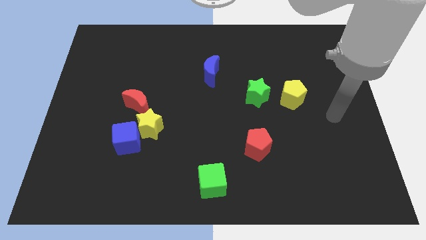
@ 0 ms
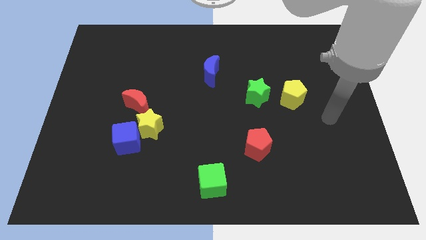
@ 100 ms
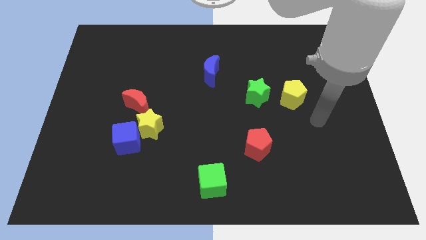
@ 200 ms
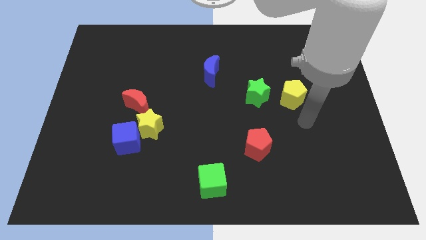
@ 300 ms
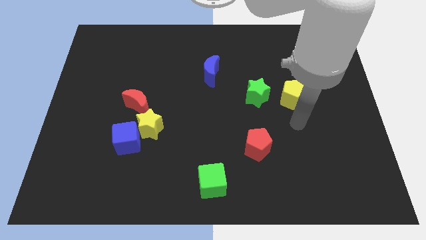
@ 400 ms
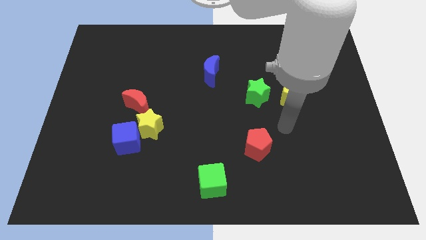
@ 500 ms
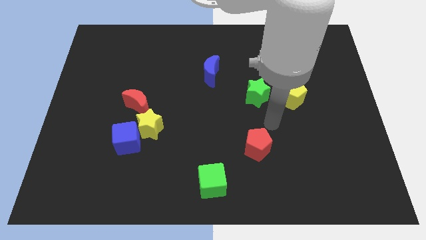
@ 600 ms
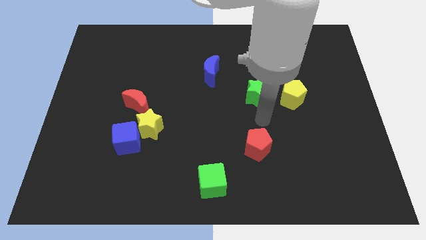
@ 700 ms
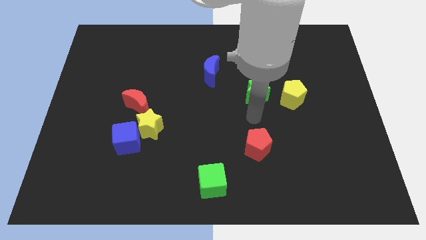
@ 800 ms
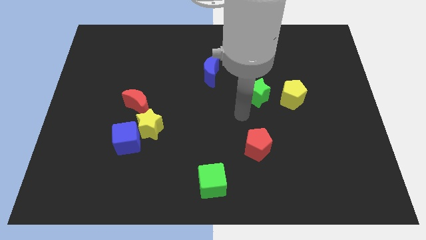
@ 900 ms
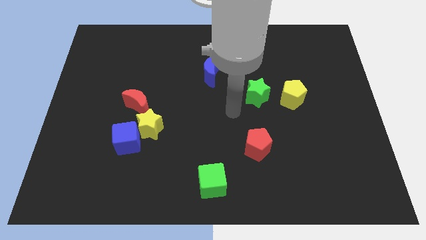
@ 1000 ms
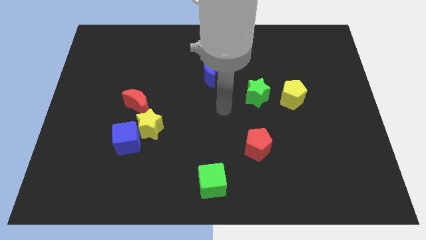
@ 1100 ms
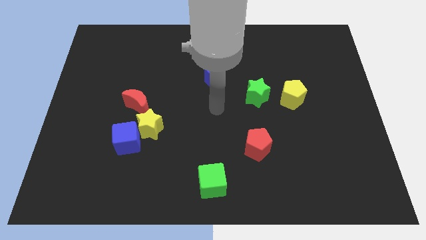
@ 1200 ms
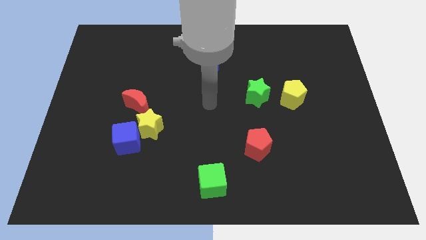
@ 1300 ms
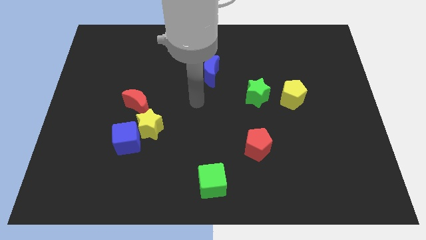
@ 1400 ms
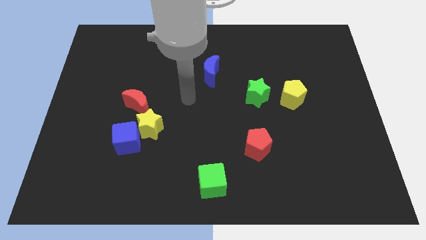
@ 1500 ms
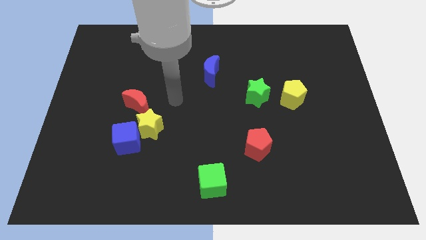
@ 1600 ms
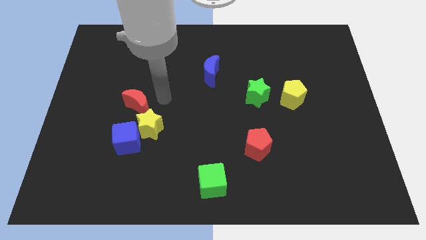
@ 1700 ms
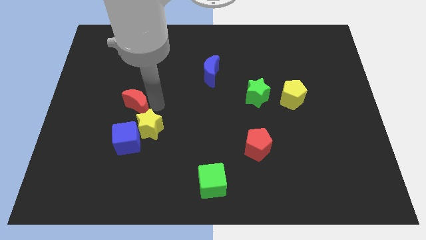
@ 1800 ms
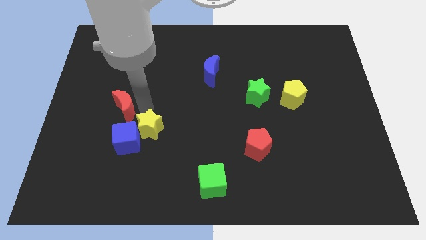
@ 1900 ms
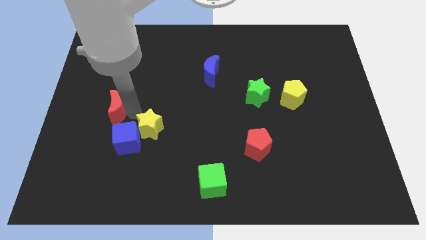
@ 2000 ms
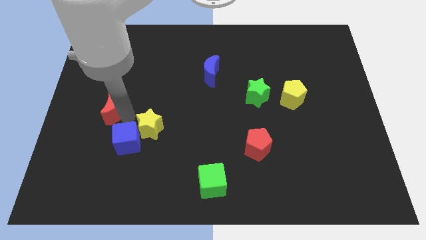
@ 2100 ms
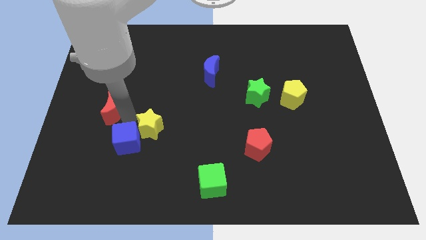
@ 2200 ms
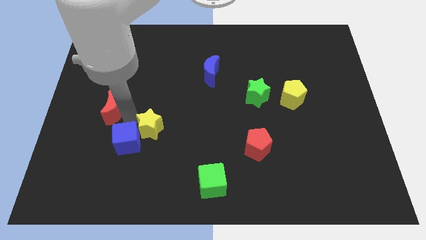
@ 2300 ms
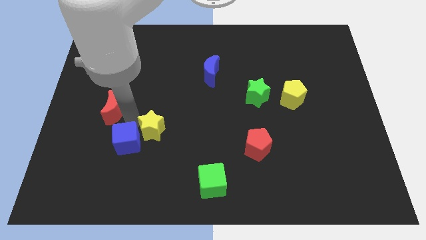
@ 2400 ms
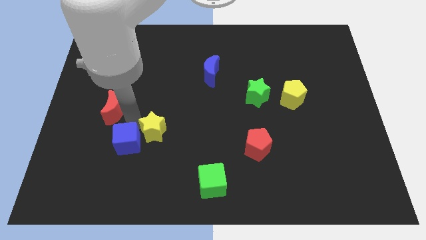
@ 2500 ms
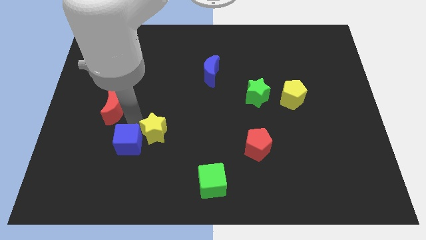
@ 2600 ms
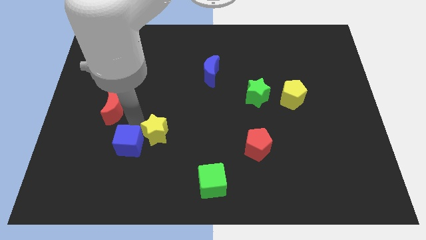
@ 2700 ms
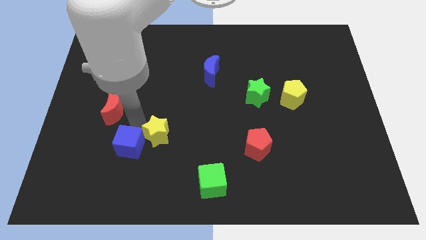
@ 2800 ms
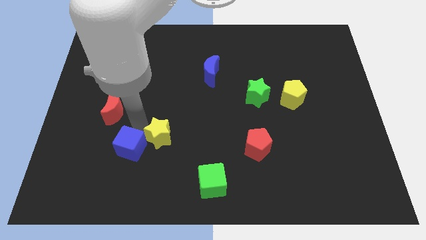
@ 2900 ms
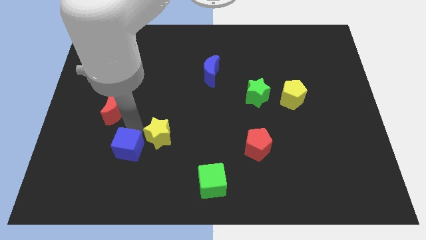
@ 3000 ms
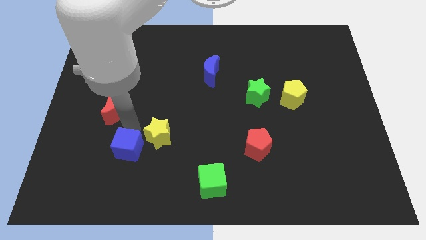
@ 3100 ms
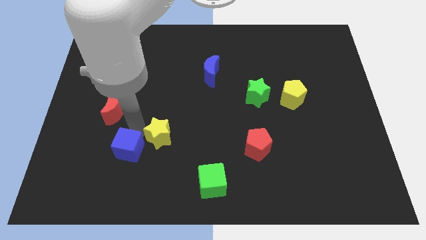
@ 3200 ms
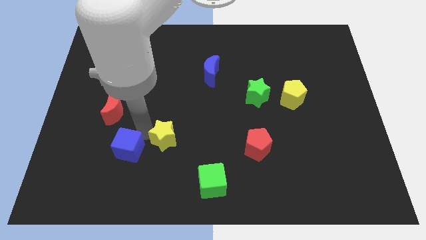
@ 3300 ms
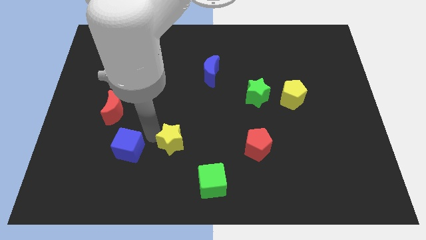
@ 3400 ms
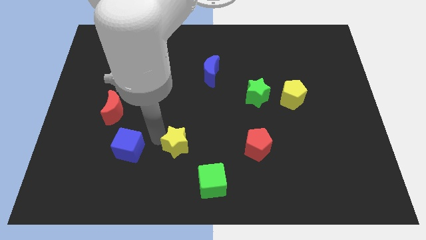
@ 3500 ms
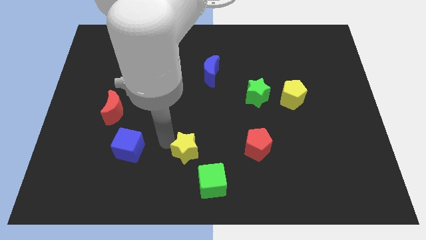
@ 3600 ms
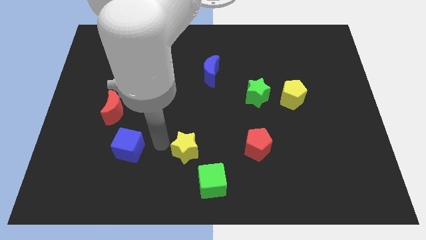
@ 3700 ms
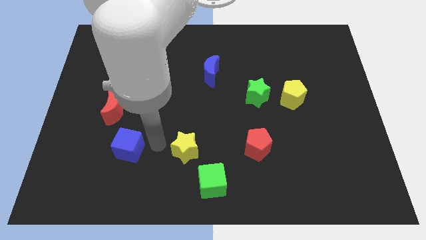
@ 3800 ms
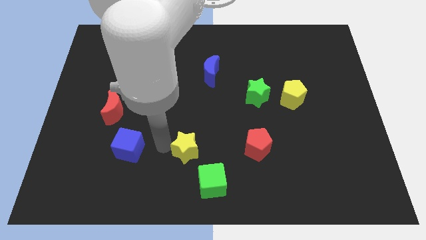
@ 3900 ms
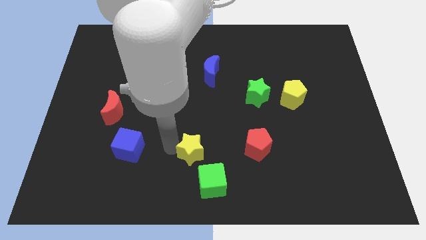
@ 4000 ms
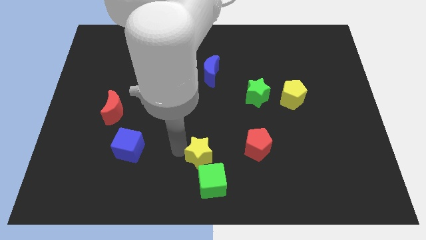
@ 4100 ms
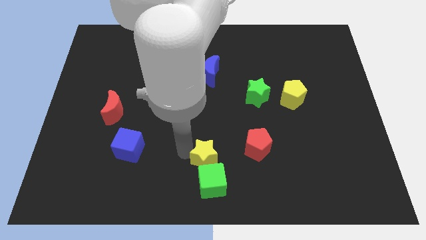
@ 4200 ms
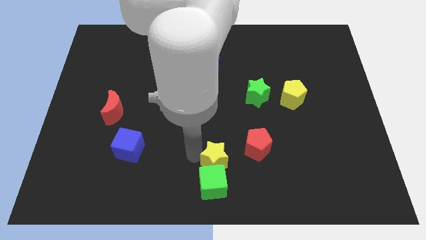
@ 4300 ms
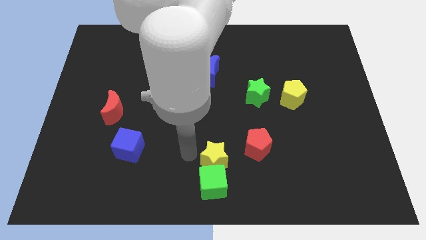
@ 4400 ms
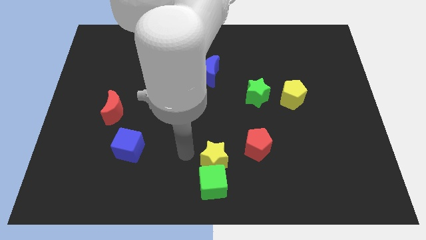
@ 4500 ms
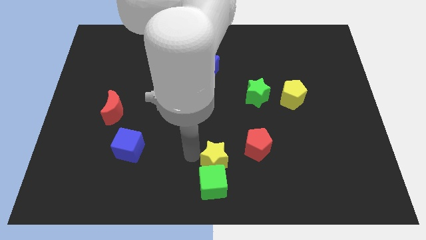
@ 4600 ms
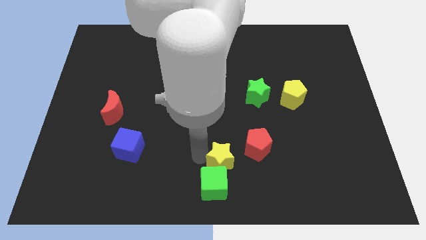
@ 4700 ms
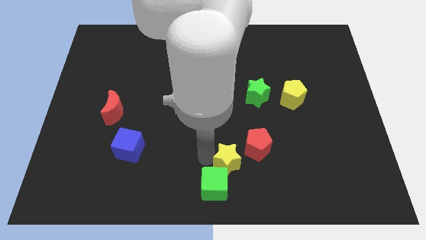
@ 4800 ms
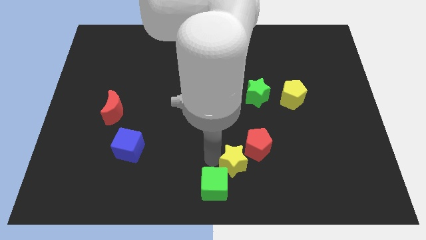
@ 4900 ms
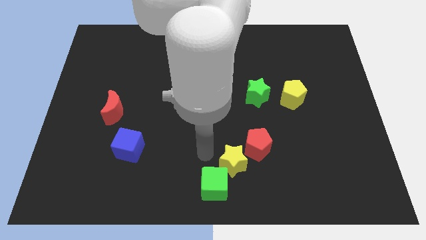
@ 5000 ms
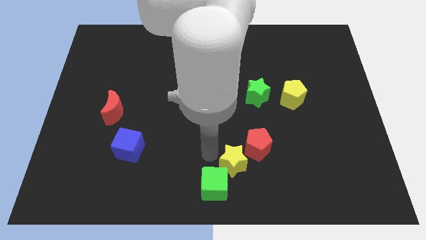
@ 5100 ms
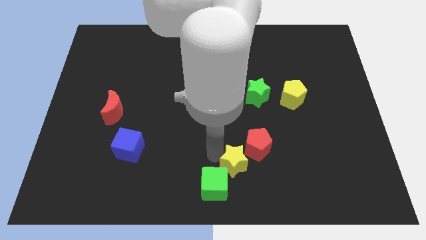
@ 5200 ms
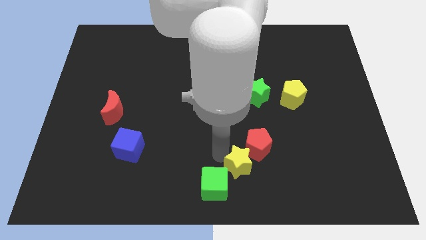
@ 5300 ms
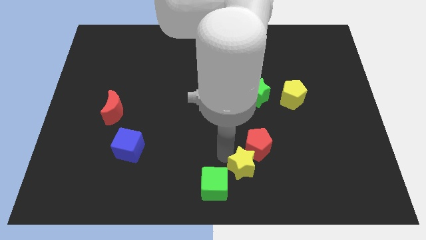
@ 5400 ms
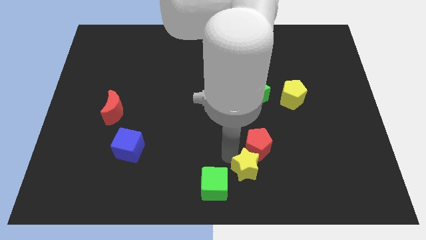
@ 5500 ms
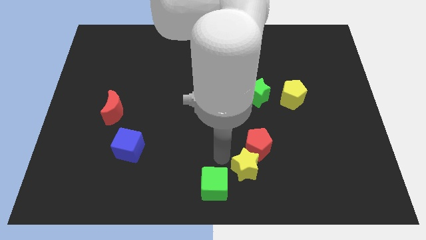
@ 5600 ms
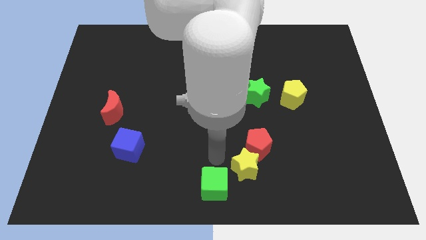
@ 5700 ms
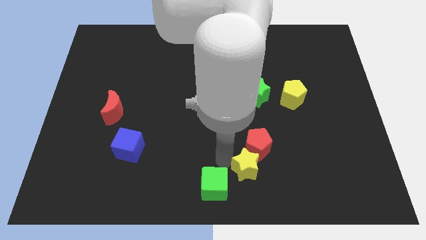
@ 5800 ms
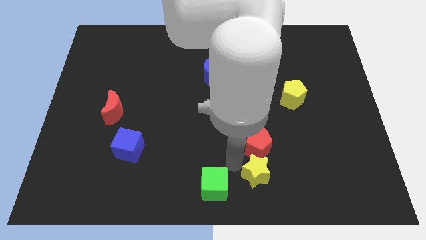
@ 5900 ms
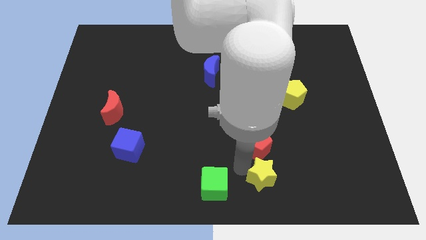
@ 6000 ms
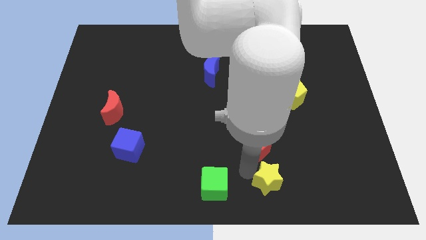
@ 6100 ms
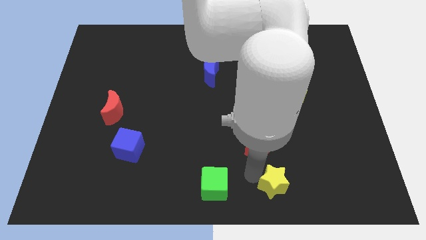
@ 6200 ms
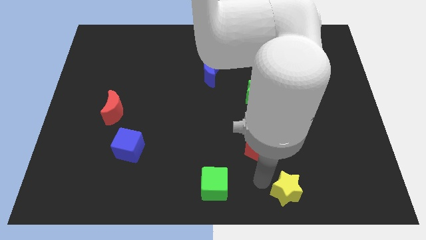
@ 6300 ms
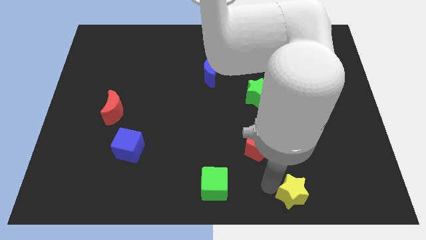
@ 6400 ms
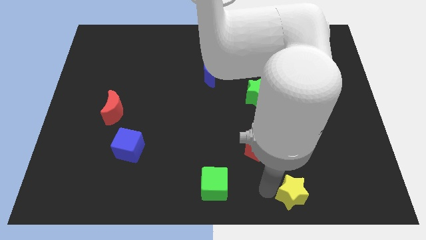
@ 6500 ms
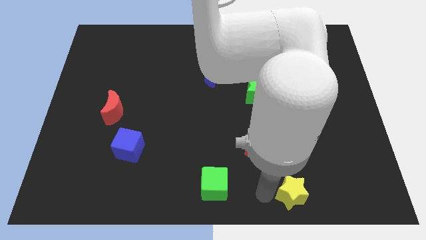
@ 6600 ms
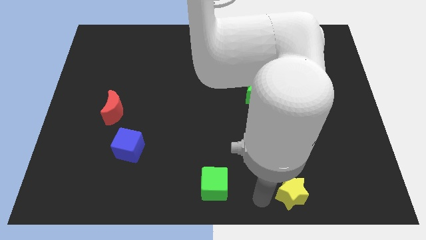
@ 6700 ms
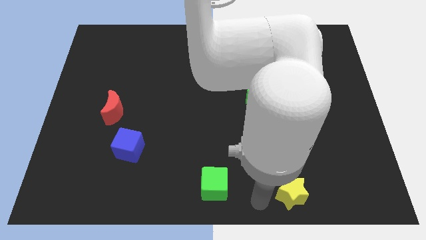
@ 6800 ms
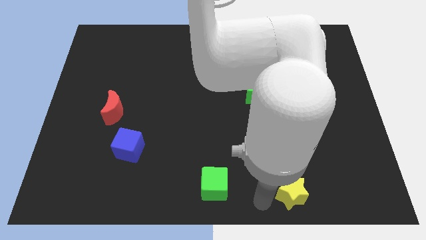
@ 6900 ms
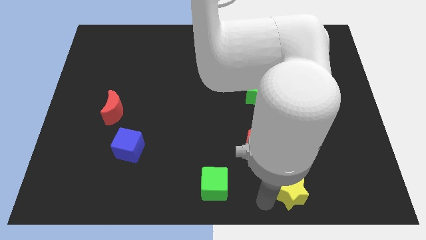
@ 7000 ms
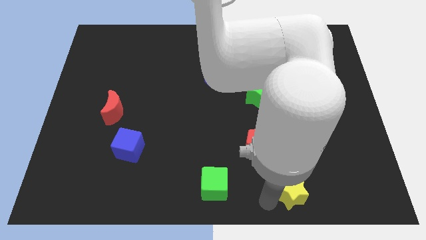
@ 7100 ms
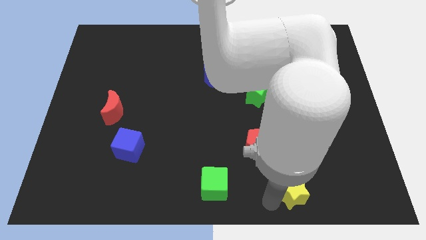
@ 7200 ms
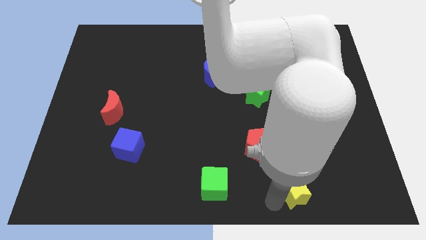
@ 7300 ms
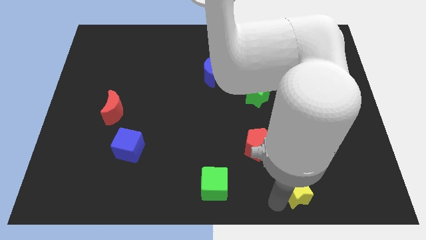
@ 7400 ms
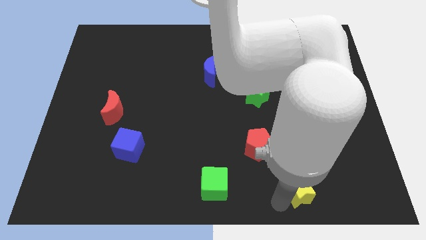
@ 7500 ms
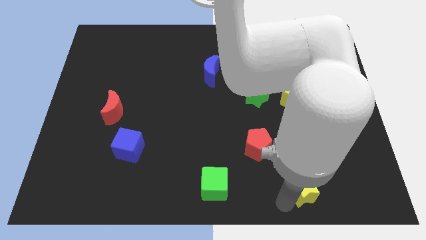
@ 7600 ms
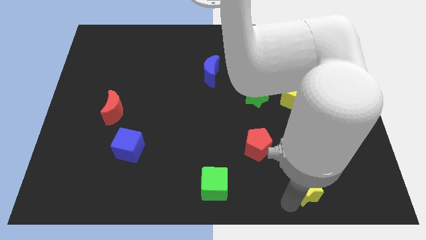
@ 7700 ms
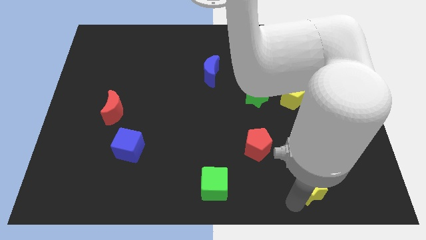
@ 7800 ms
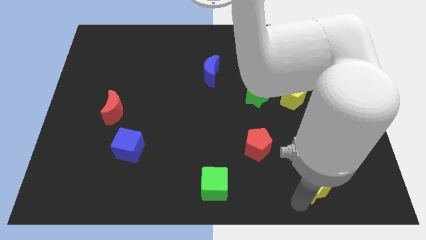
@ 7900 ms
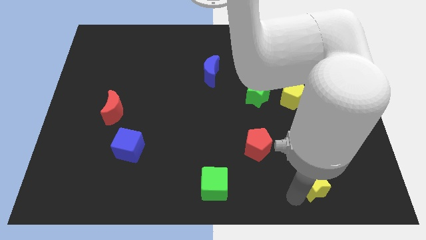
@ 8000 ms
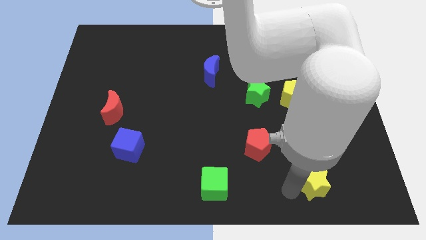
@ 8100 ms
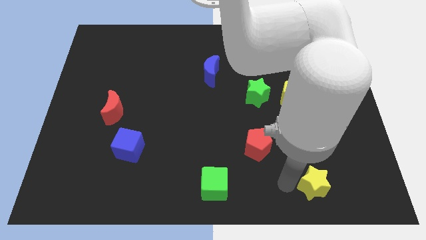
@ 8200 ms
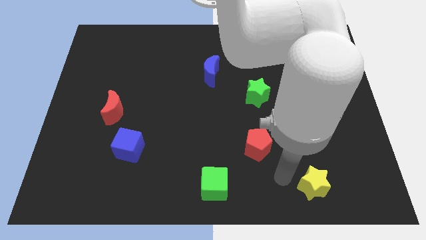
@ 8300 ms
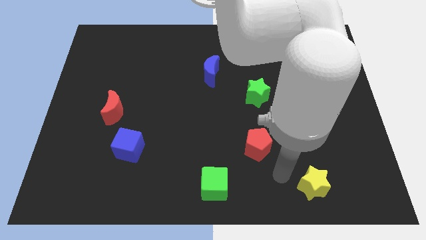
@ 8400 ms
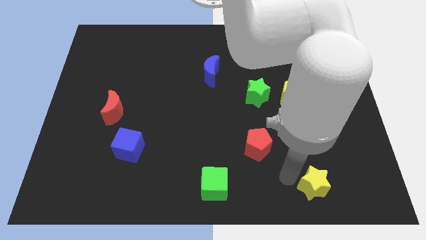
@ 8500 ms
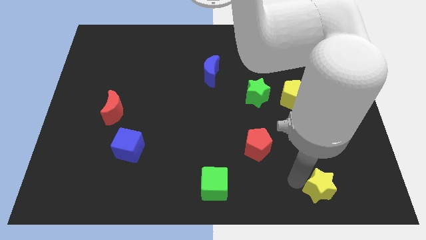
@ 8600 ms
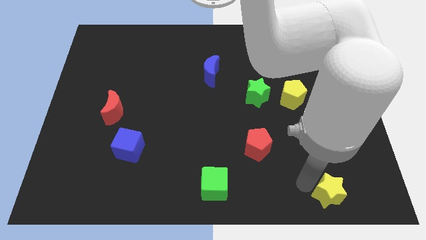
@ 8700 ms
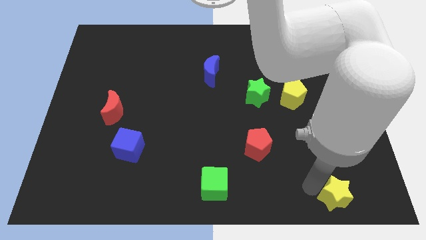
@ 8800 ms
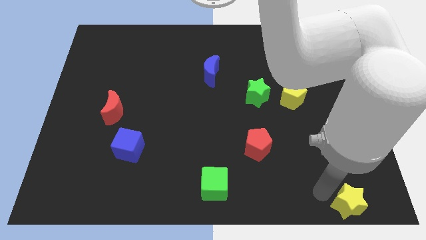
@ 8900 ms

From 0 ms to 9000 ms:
slide the yellow star to the lower right corner
